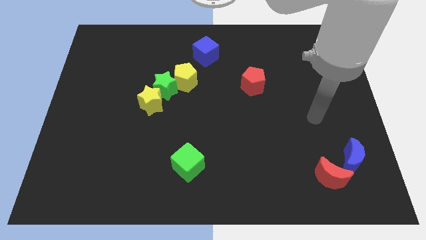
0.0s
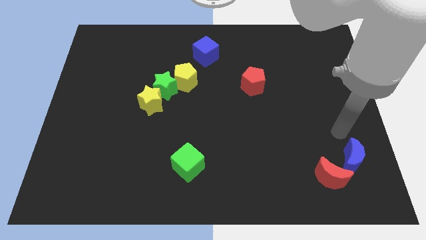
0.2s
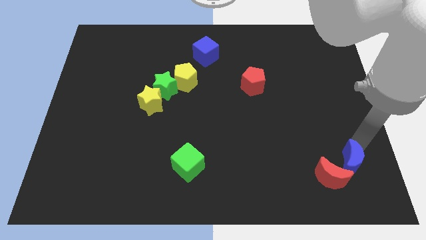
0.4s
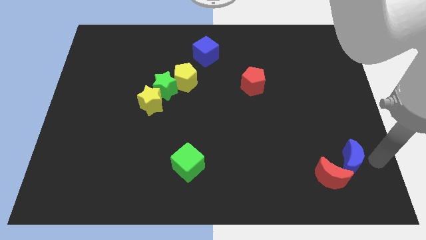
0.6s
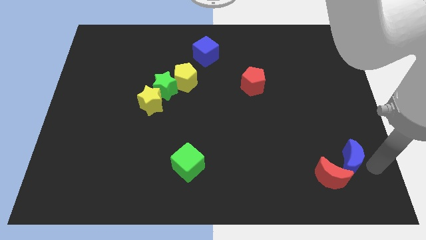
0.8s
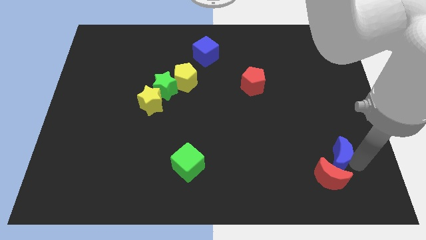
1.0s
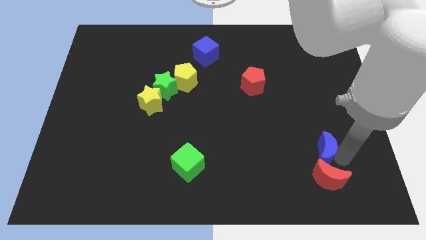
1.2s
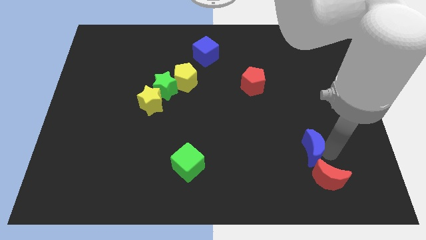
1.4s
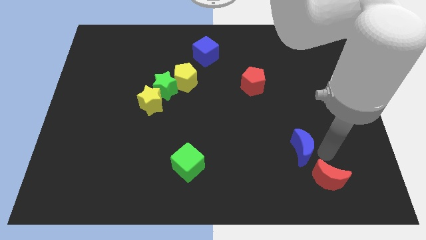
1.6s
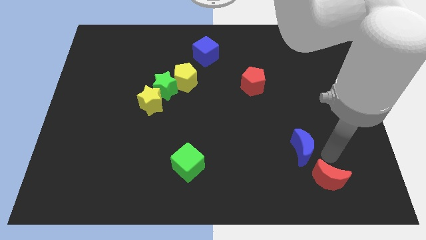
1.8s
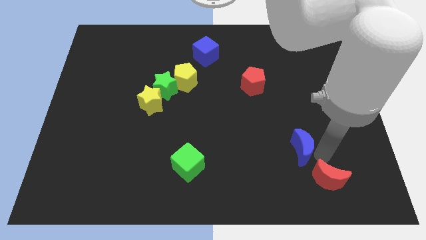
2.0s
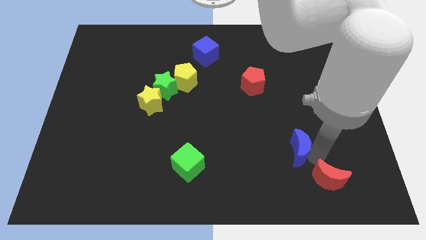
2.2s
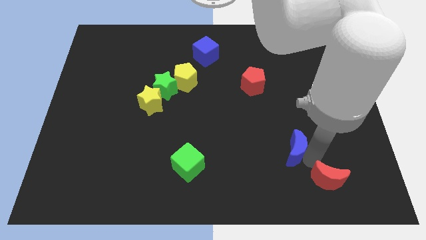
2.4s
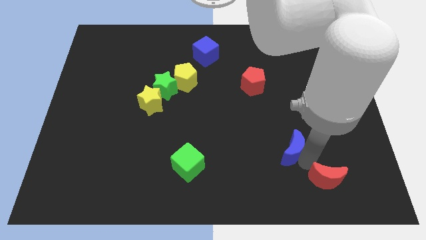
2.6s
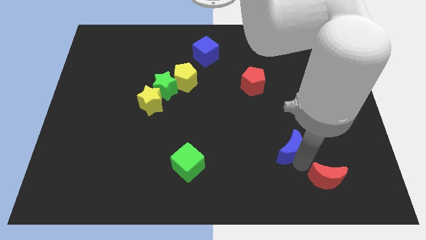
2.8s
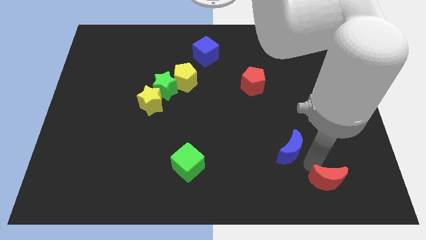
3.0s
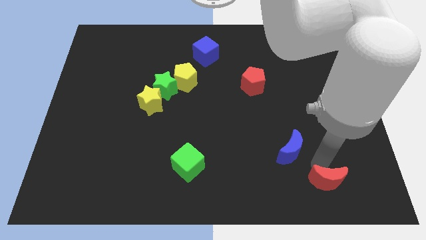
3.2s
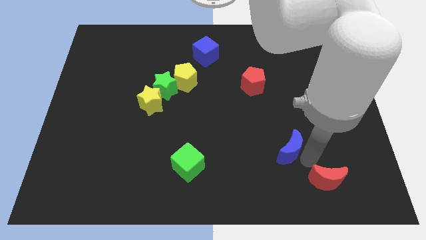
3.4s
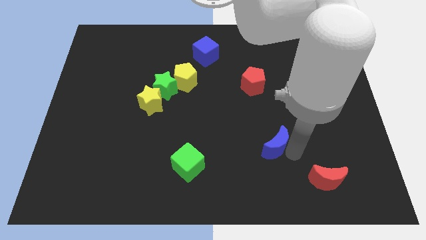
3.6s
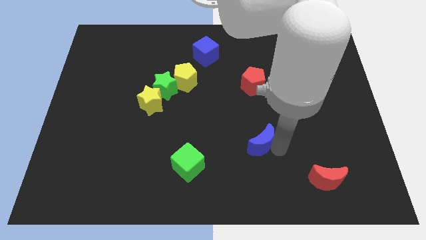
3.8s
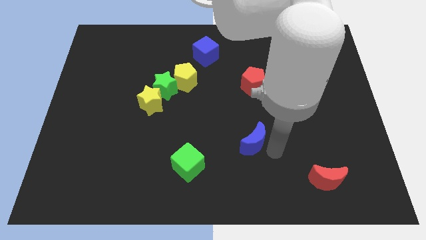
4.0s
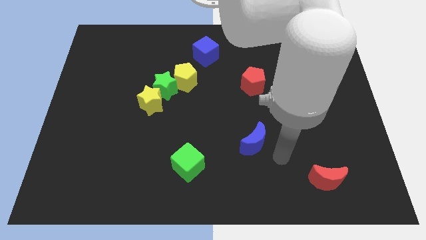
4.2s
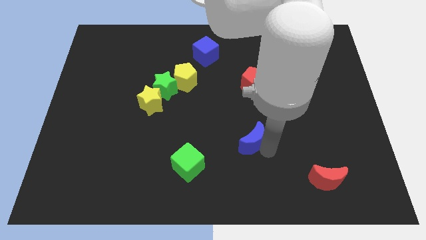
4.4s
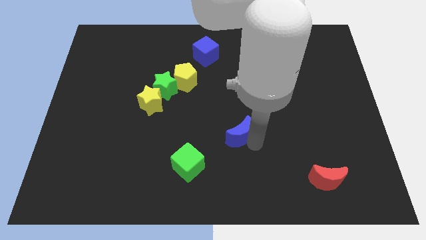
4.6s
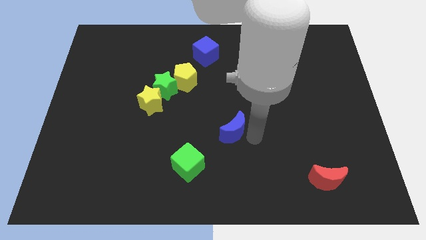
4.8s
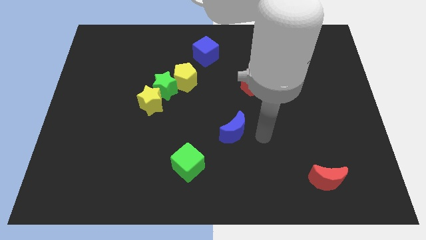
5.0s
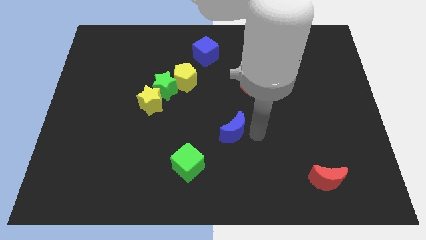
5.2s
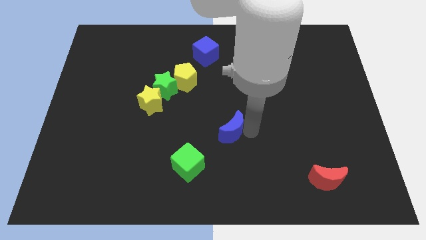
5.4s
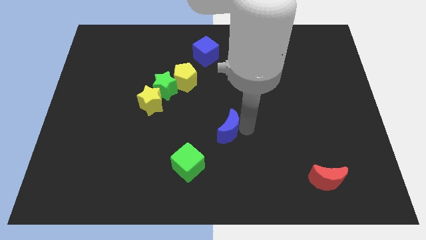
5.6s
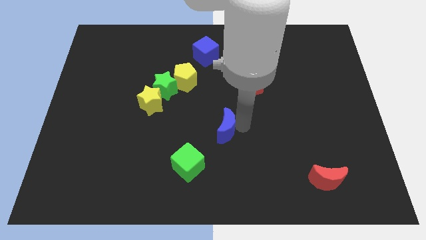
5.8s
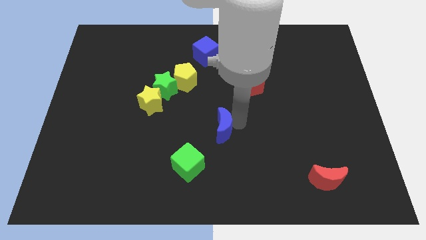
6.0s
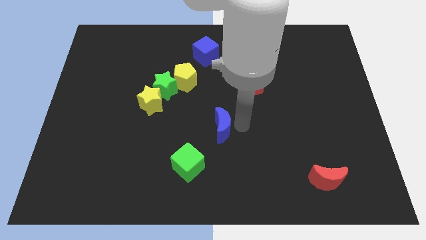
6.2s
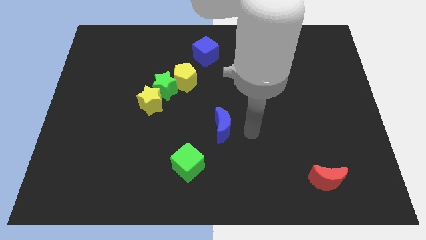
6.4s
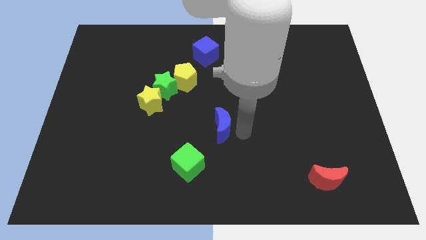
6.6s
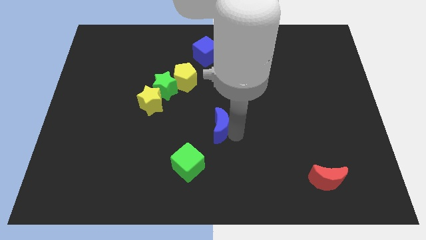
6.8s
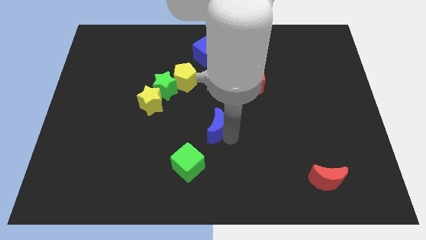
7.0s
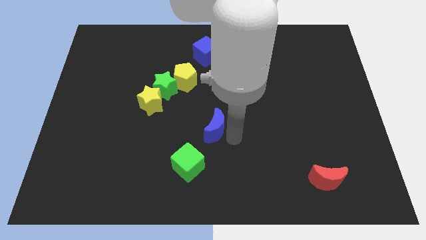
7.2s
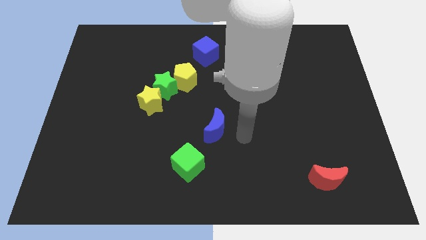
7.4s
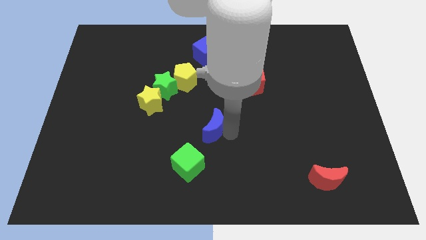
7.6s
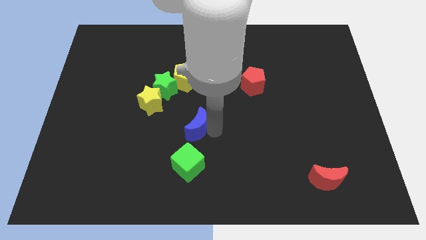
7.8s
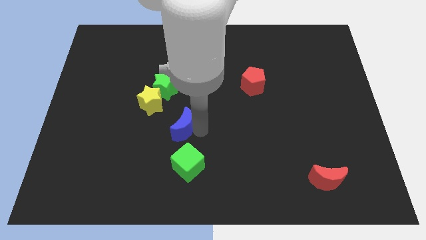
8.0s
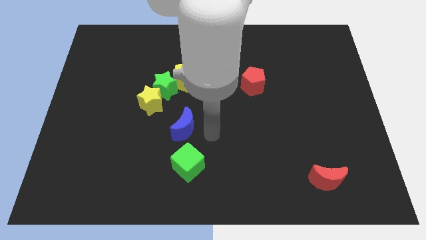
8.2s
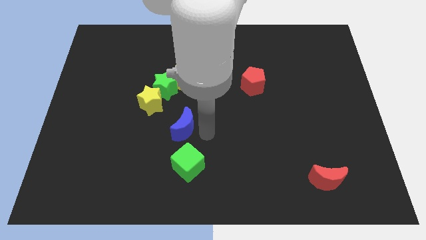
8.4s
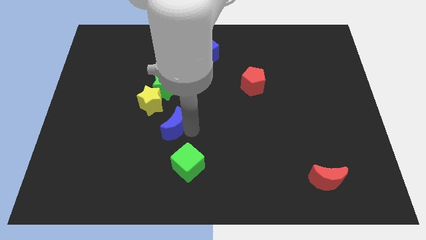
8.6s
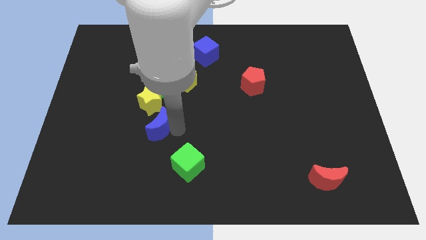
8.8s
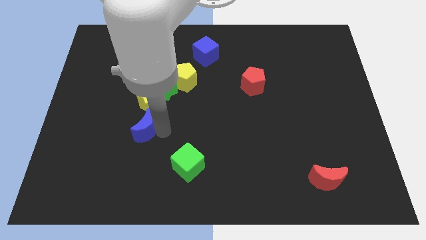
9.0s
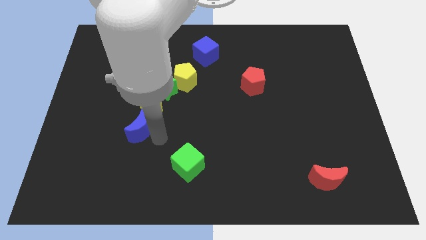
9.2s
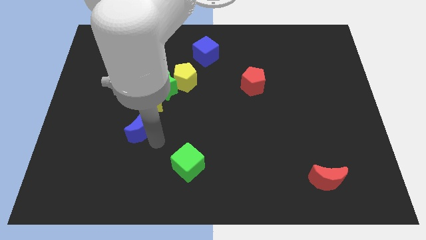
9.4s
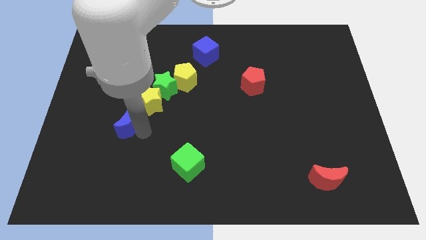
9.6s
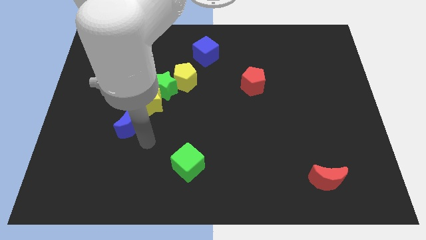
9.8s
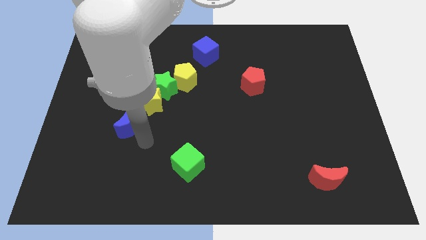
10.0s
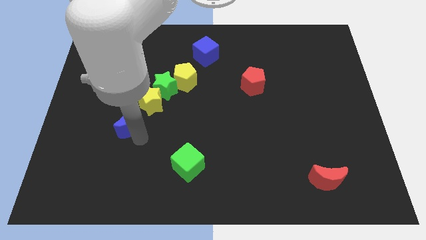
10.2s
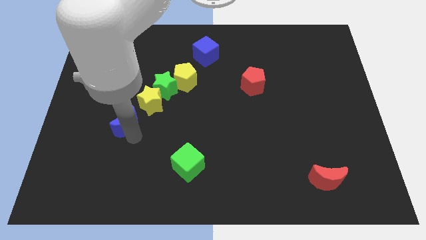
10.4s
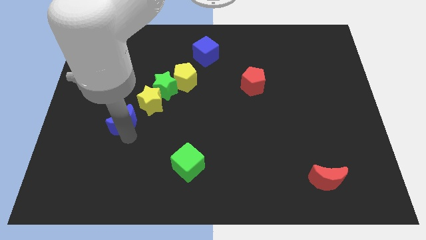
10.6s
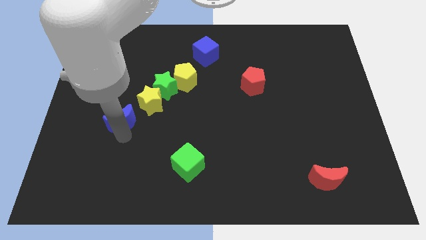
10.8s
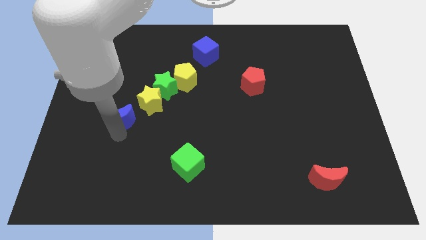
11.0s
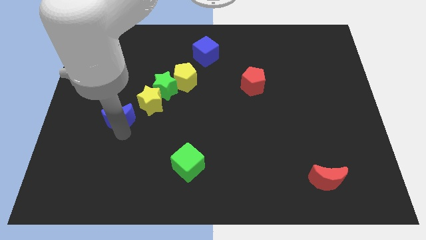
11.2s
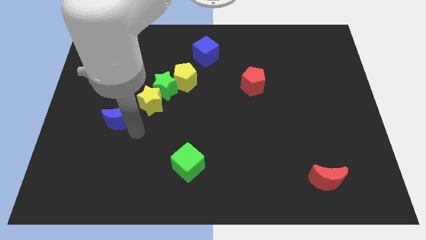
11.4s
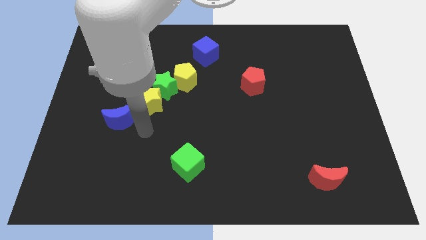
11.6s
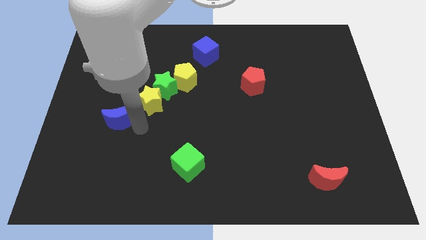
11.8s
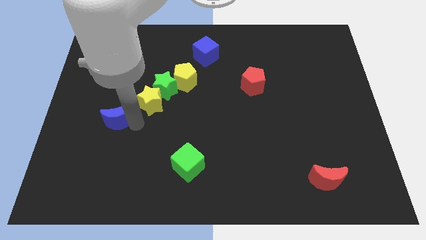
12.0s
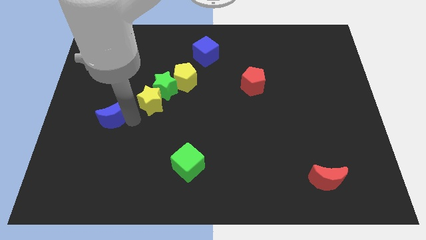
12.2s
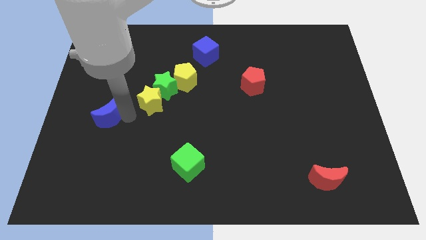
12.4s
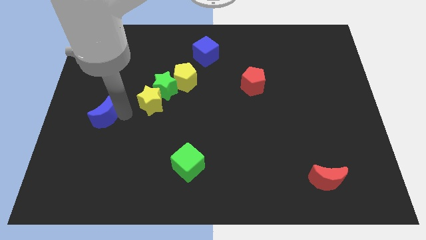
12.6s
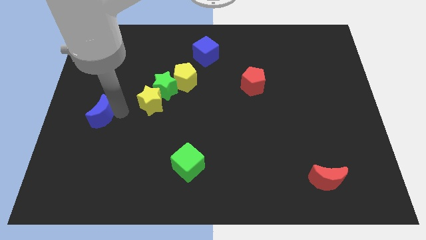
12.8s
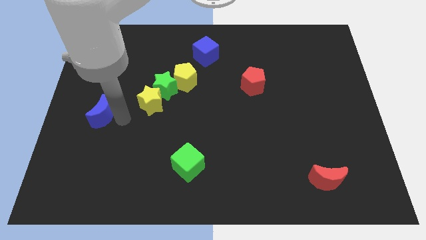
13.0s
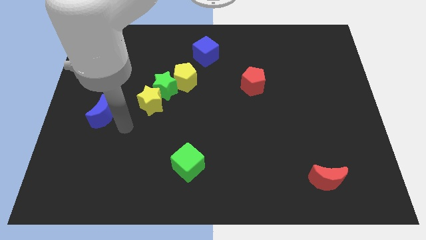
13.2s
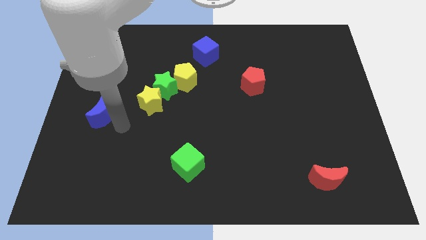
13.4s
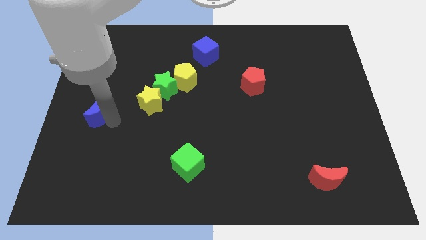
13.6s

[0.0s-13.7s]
push the blue moon to the left side

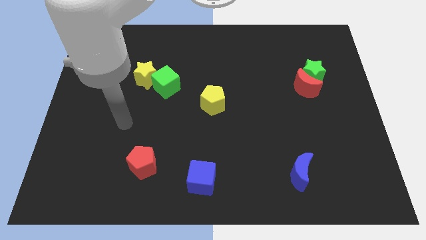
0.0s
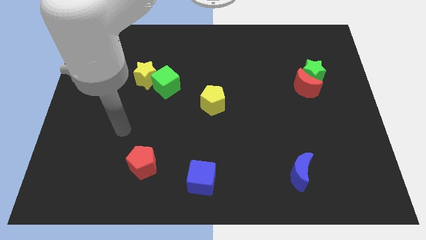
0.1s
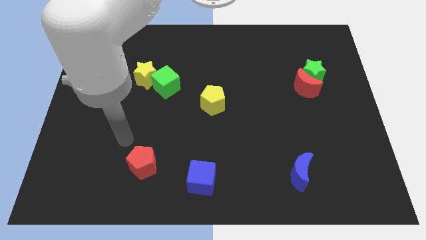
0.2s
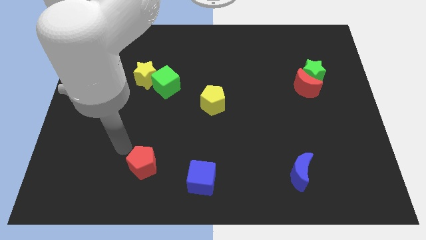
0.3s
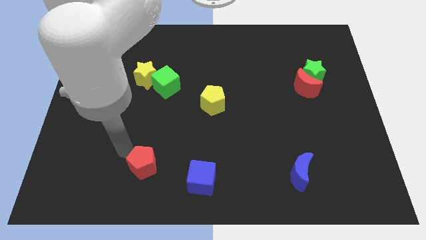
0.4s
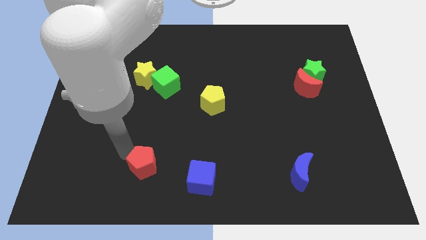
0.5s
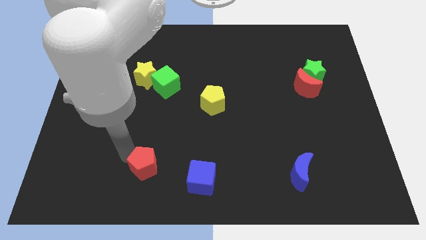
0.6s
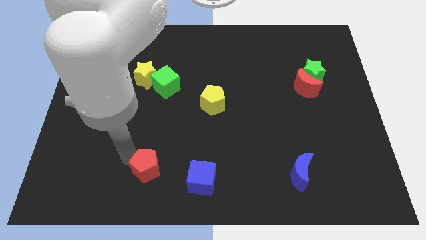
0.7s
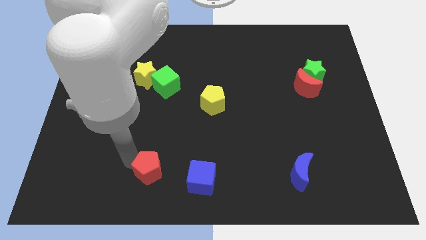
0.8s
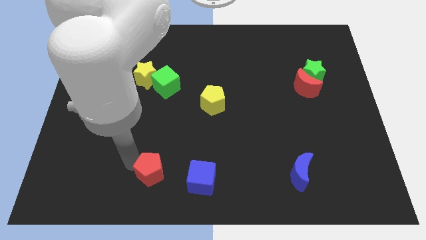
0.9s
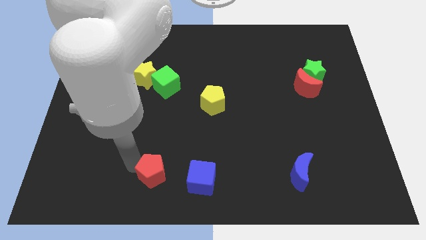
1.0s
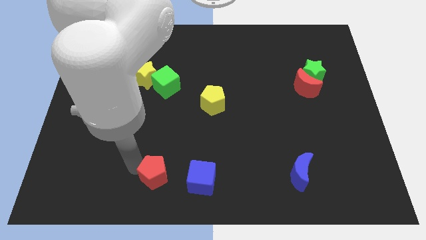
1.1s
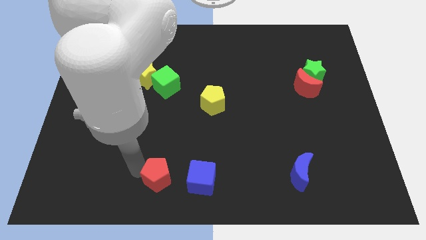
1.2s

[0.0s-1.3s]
move the red pentagon to the bottom
